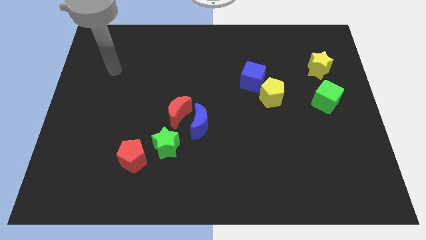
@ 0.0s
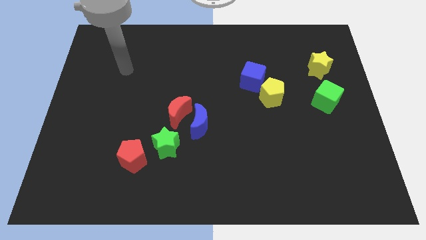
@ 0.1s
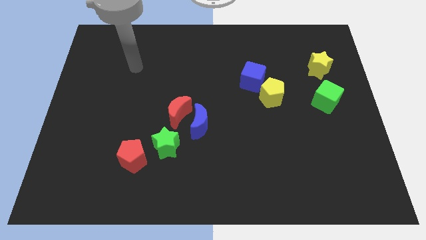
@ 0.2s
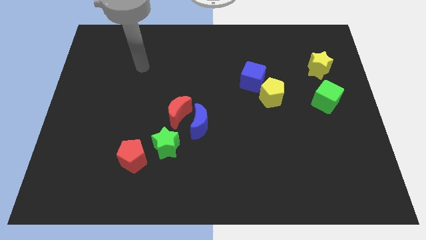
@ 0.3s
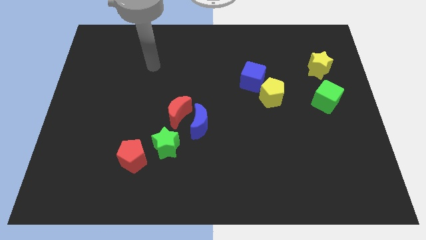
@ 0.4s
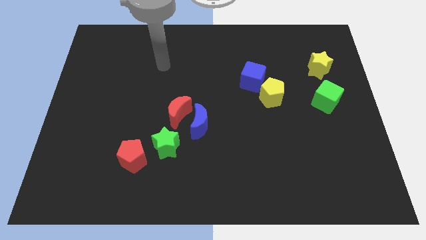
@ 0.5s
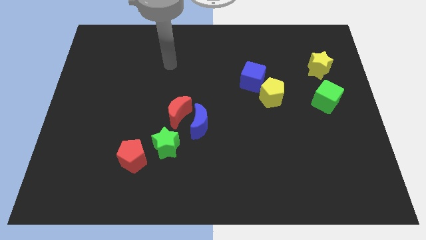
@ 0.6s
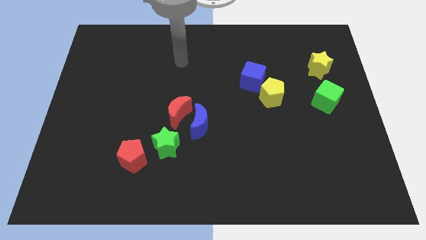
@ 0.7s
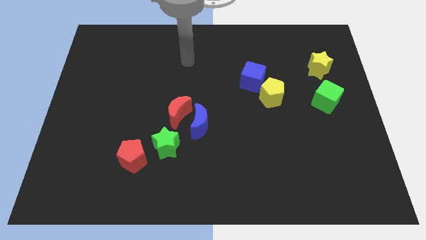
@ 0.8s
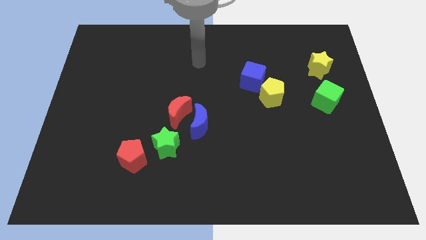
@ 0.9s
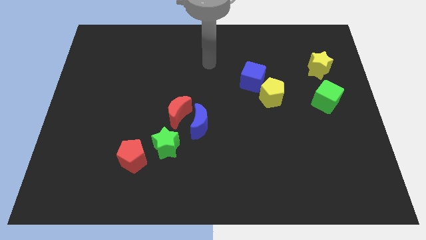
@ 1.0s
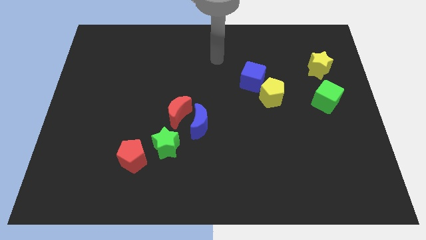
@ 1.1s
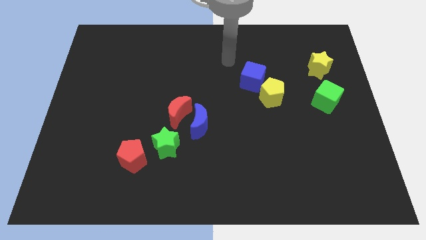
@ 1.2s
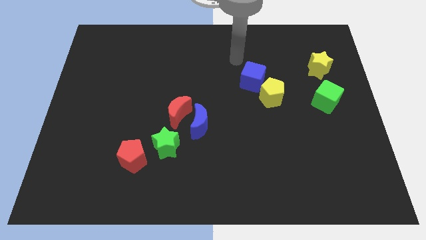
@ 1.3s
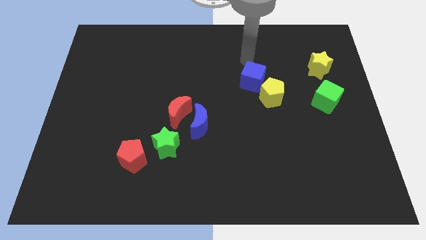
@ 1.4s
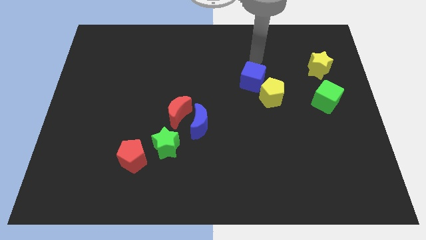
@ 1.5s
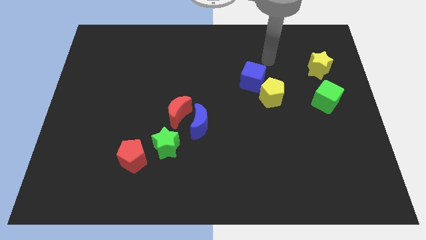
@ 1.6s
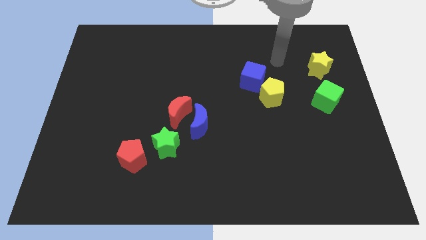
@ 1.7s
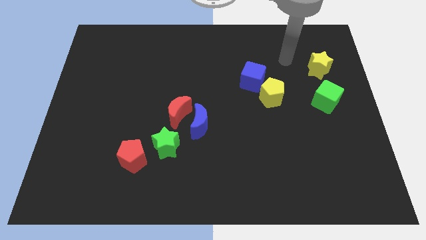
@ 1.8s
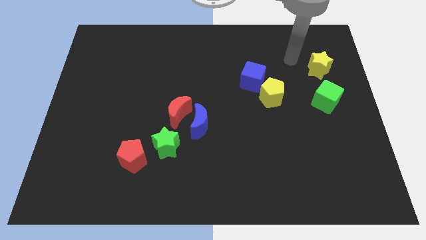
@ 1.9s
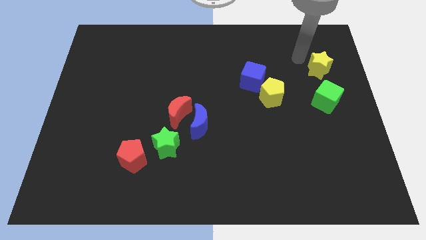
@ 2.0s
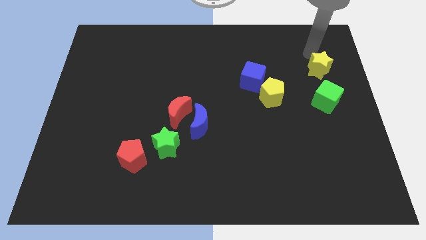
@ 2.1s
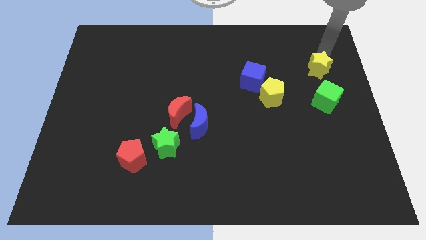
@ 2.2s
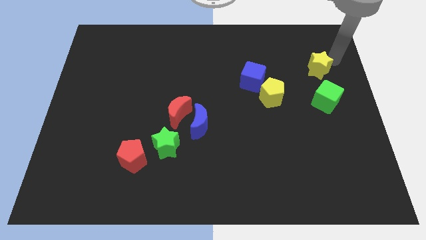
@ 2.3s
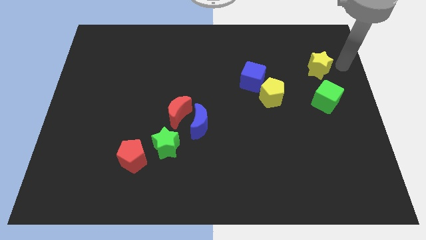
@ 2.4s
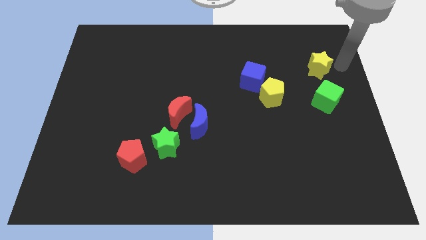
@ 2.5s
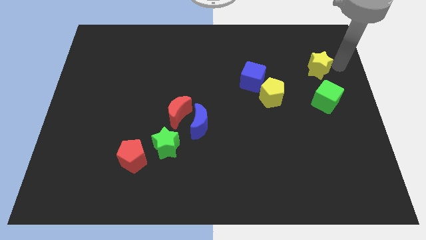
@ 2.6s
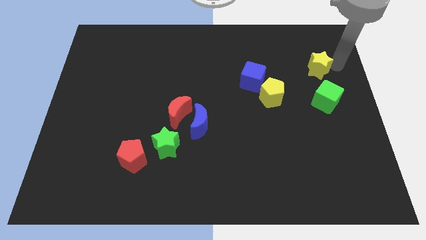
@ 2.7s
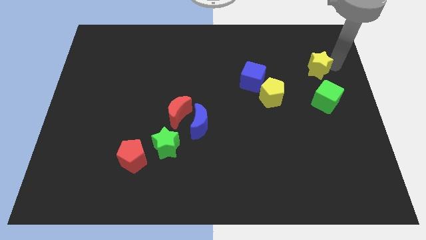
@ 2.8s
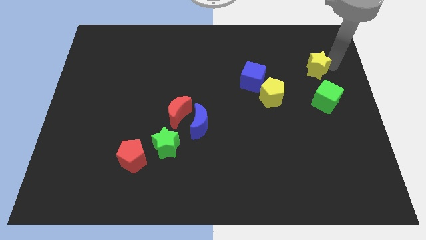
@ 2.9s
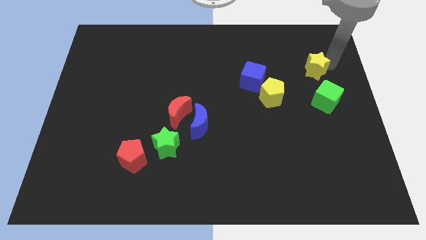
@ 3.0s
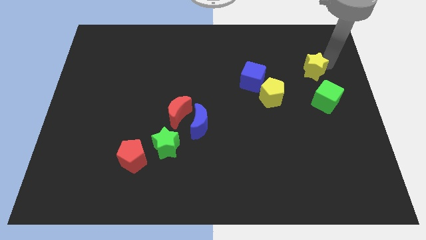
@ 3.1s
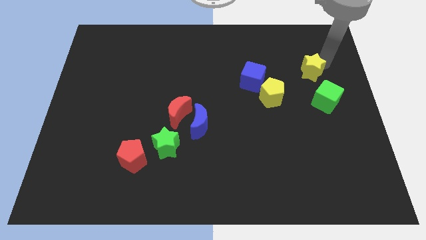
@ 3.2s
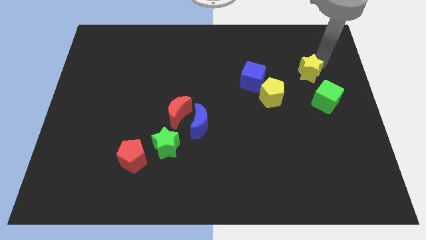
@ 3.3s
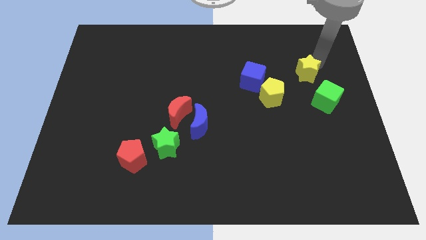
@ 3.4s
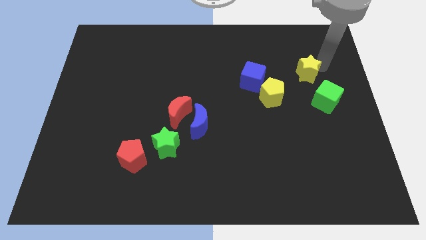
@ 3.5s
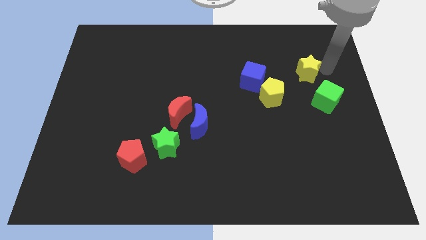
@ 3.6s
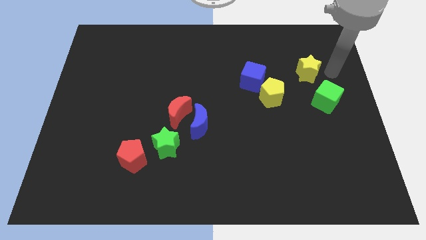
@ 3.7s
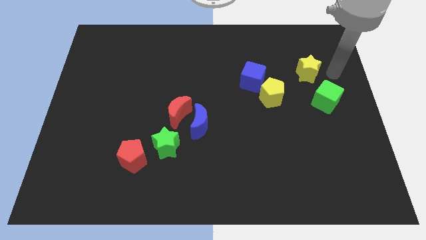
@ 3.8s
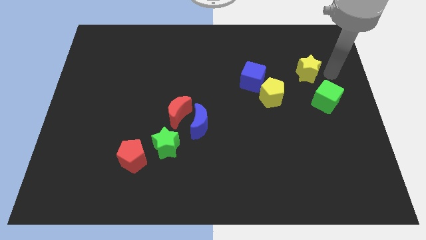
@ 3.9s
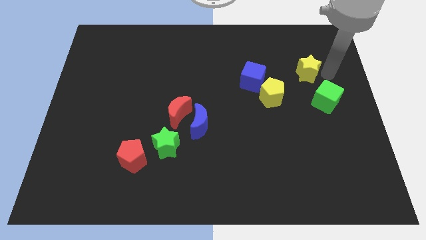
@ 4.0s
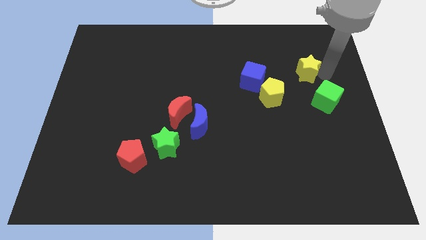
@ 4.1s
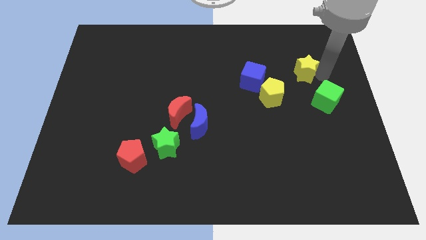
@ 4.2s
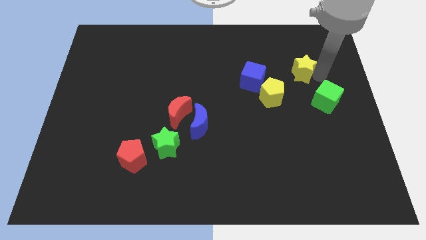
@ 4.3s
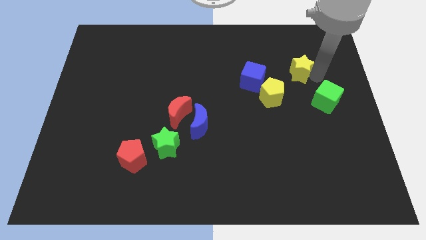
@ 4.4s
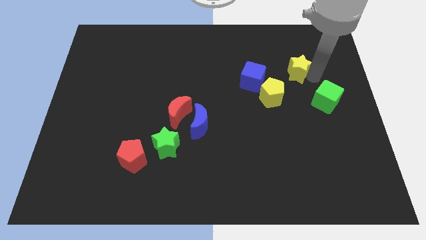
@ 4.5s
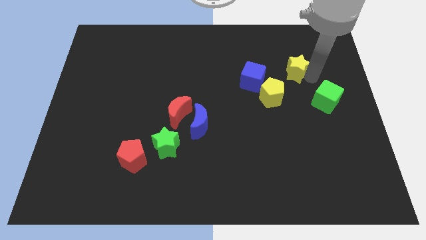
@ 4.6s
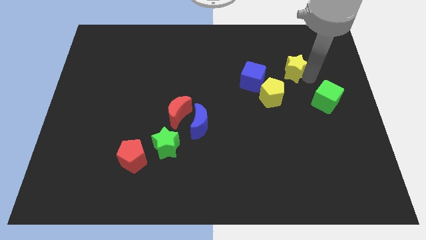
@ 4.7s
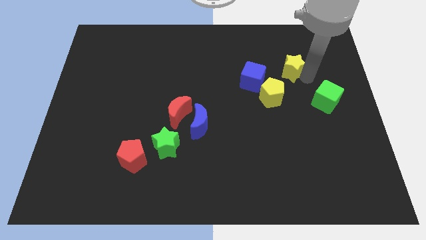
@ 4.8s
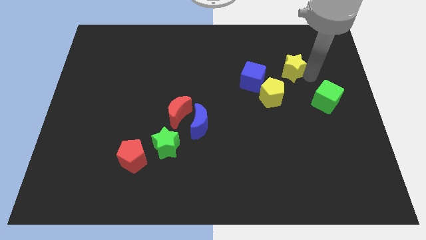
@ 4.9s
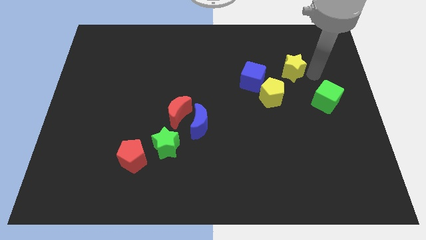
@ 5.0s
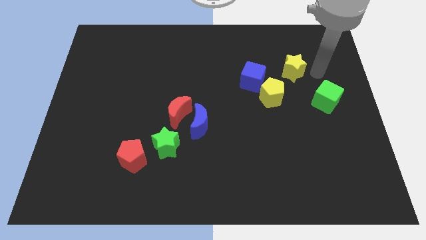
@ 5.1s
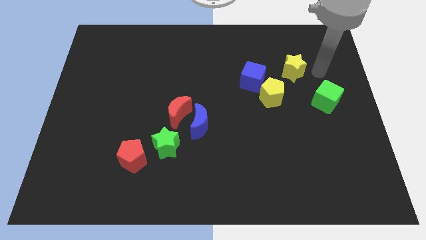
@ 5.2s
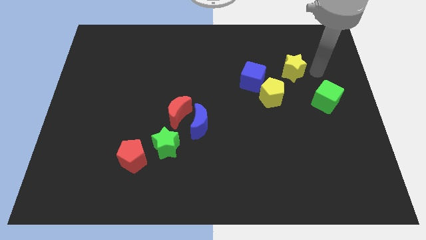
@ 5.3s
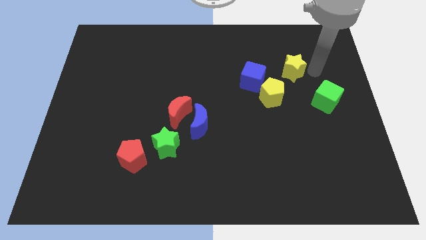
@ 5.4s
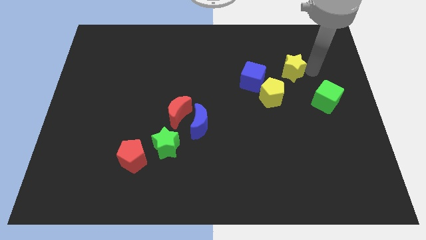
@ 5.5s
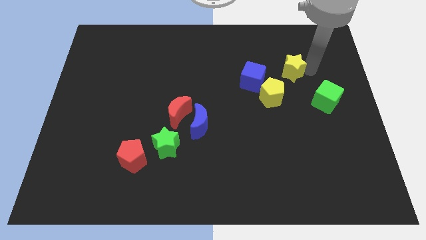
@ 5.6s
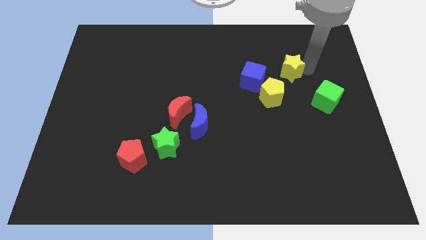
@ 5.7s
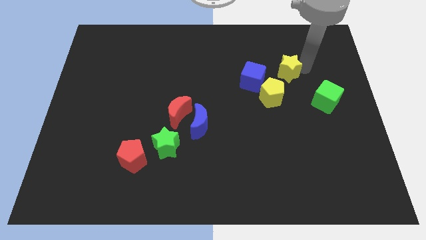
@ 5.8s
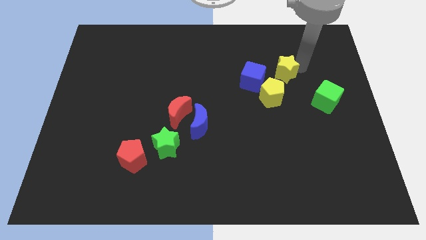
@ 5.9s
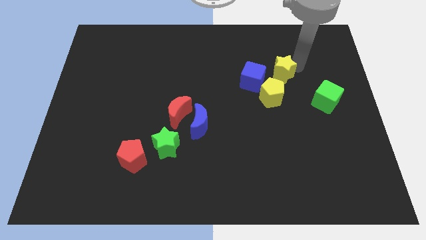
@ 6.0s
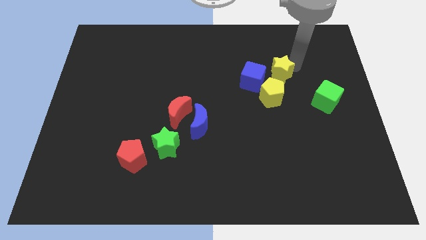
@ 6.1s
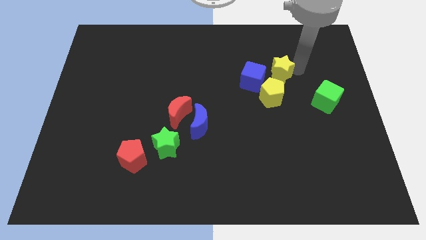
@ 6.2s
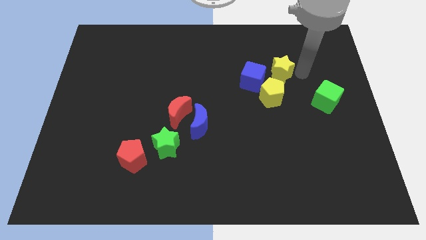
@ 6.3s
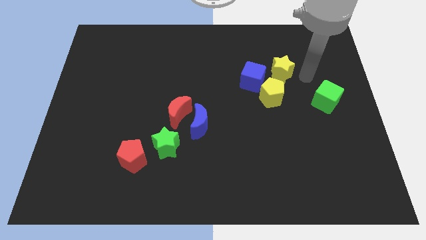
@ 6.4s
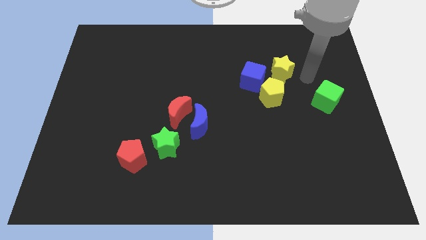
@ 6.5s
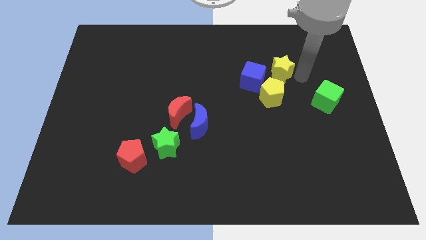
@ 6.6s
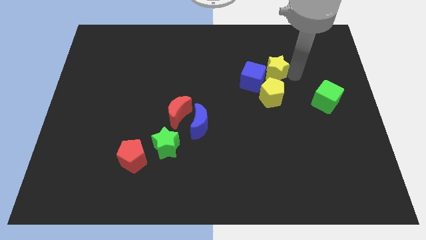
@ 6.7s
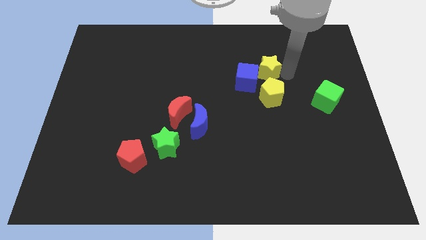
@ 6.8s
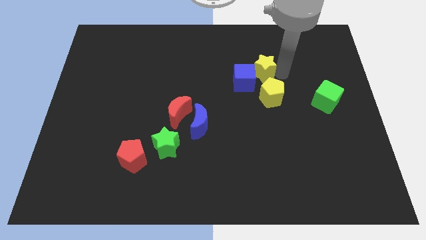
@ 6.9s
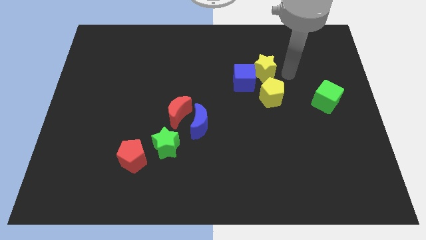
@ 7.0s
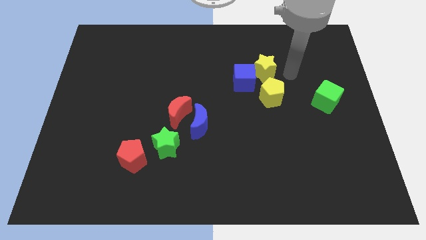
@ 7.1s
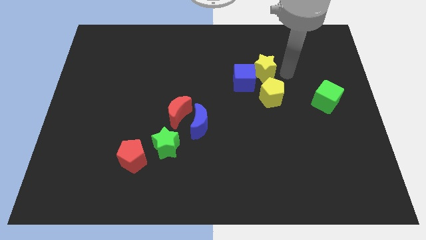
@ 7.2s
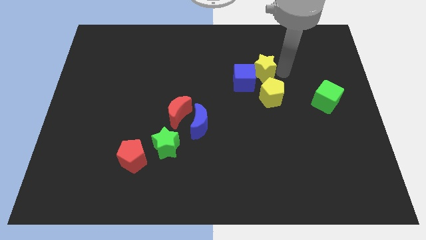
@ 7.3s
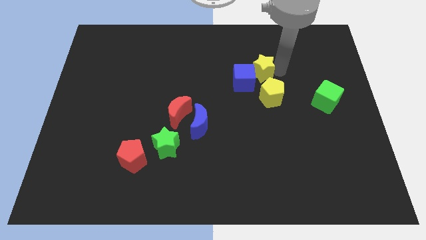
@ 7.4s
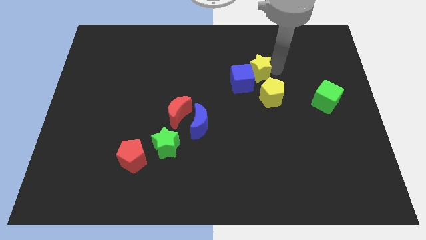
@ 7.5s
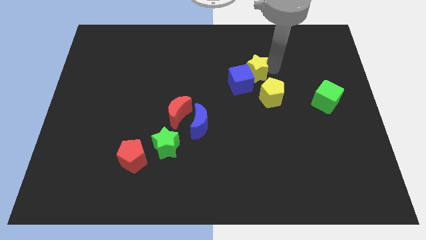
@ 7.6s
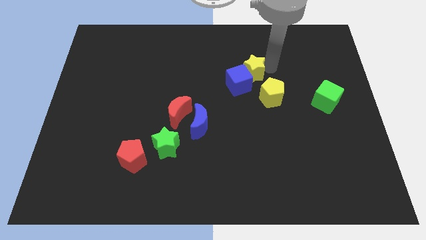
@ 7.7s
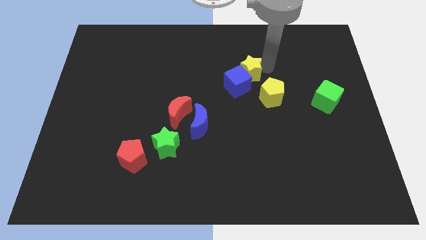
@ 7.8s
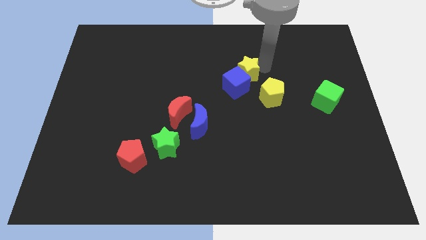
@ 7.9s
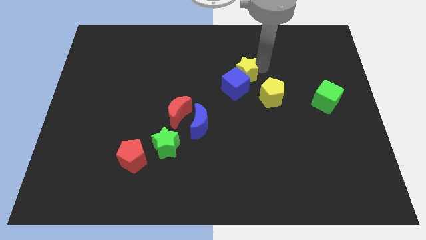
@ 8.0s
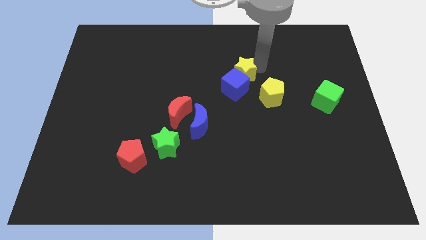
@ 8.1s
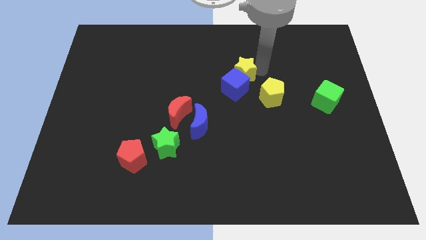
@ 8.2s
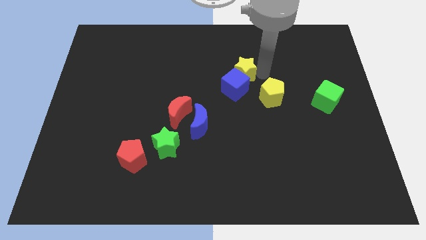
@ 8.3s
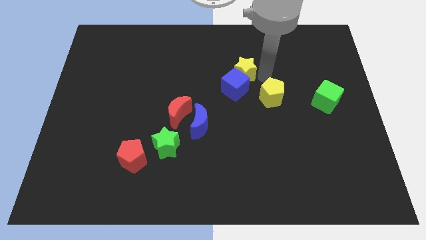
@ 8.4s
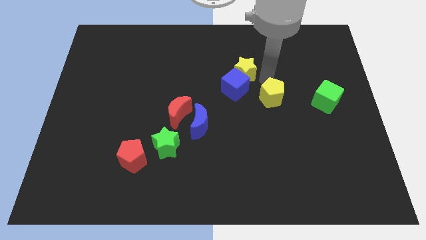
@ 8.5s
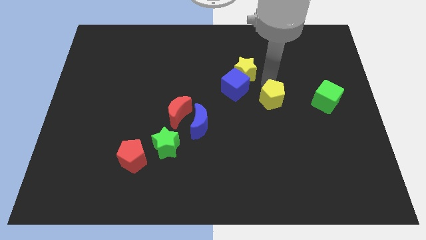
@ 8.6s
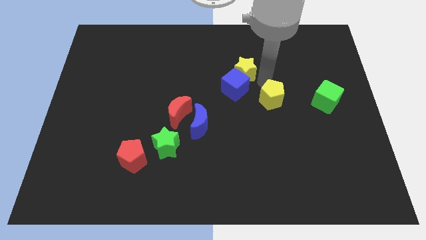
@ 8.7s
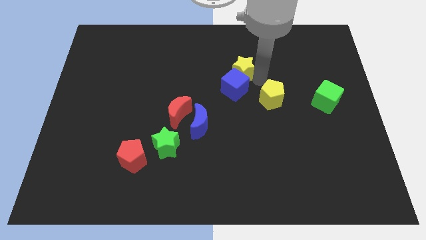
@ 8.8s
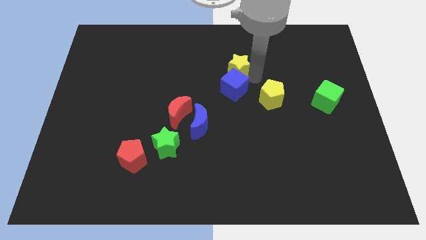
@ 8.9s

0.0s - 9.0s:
push the yellow star left
